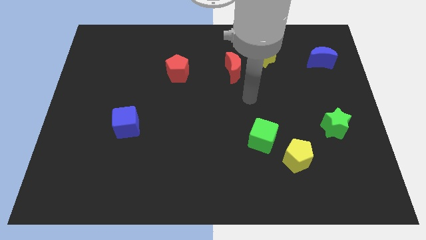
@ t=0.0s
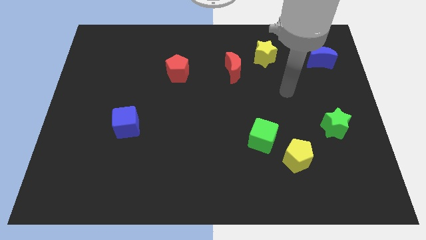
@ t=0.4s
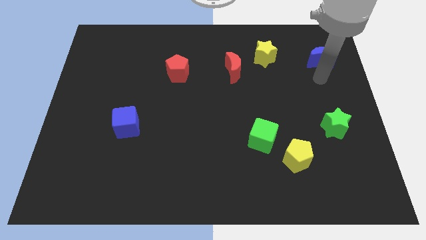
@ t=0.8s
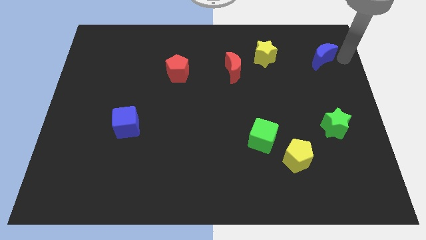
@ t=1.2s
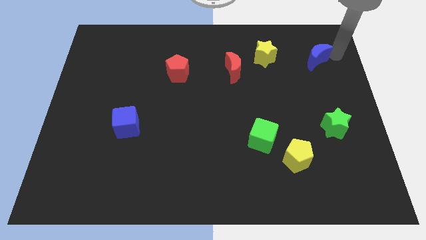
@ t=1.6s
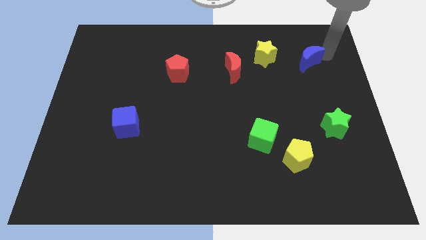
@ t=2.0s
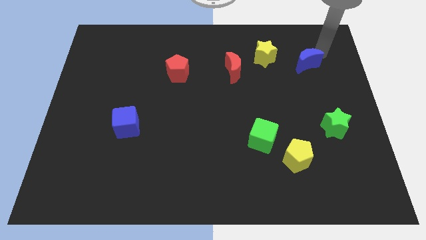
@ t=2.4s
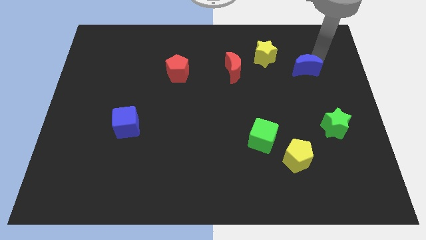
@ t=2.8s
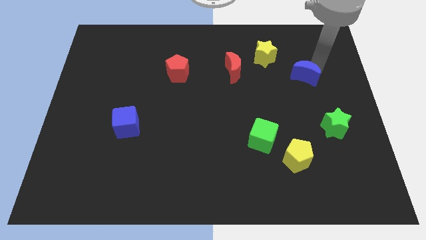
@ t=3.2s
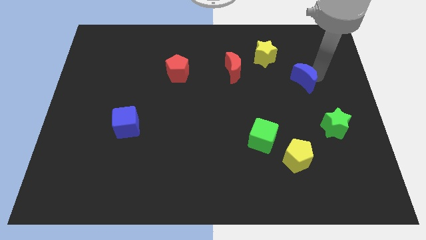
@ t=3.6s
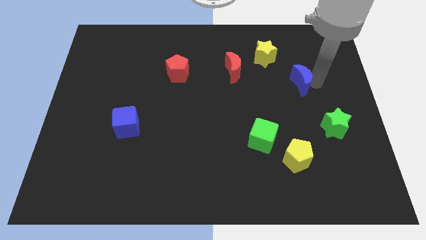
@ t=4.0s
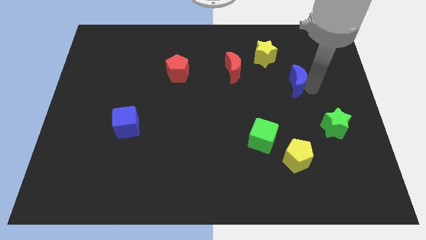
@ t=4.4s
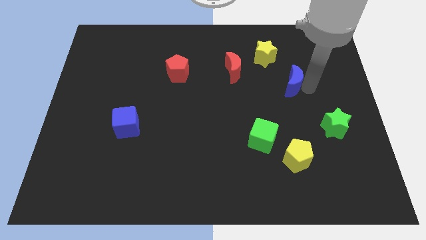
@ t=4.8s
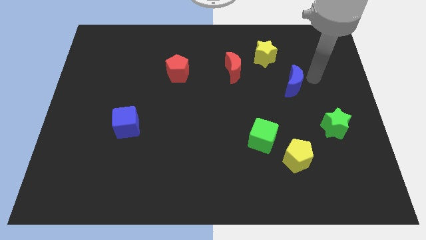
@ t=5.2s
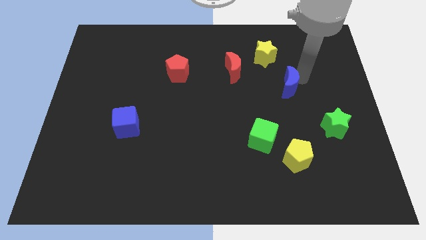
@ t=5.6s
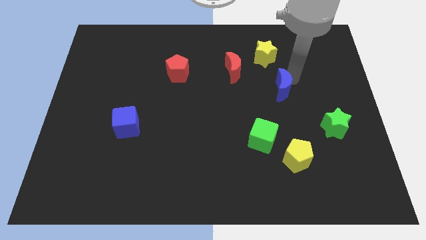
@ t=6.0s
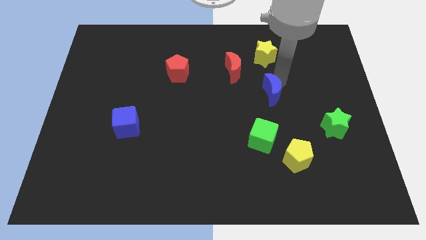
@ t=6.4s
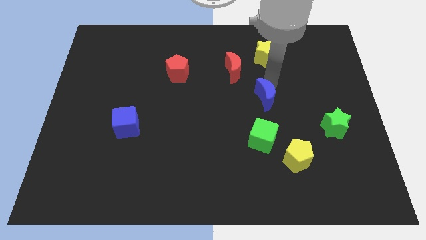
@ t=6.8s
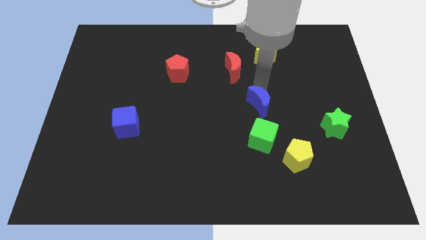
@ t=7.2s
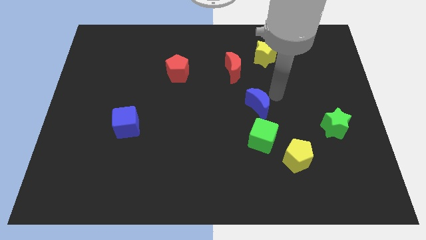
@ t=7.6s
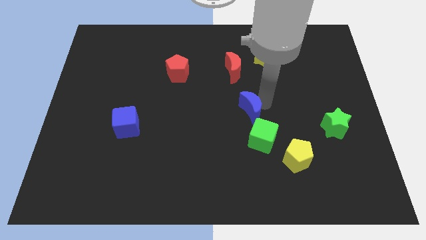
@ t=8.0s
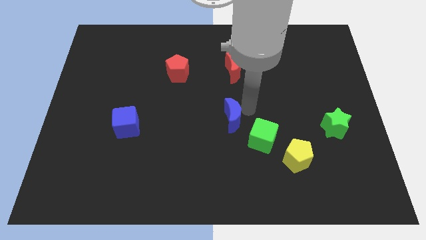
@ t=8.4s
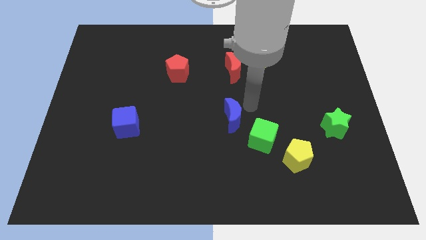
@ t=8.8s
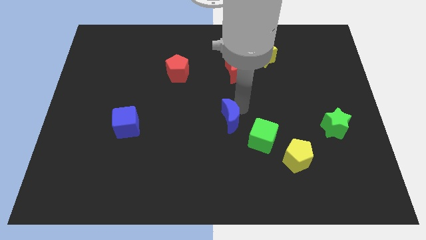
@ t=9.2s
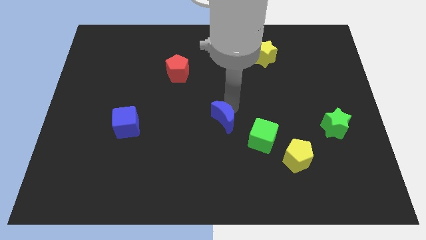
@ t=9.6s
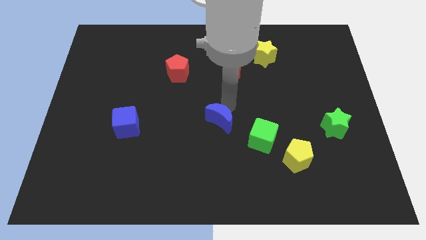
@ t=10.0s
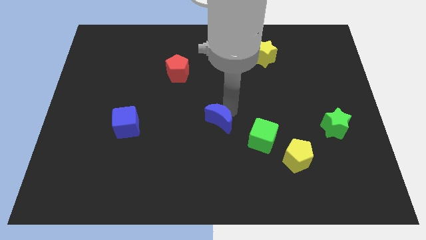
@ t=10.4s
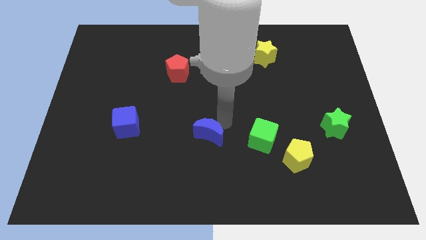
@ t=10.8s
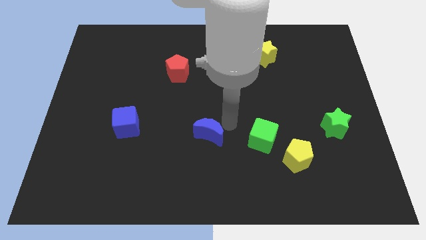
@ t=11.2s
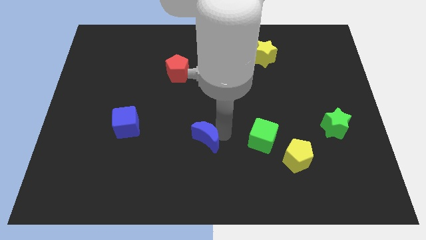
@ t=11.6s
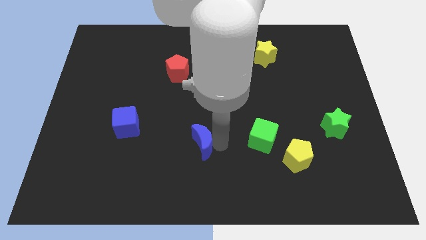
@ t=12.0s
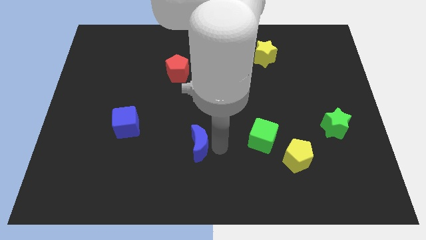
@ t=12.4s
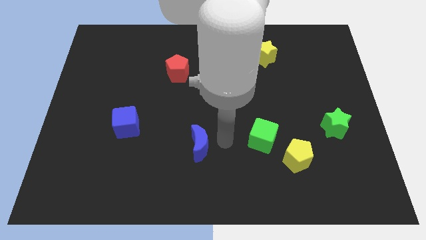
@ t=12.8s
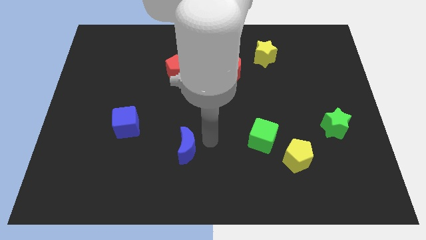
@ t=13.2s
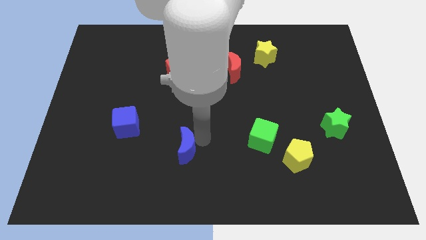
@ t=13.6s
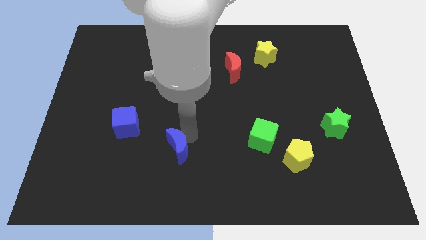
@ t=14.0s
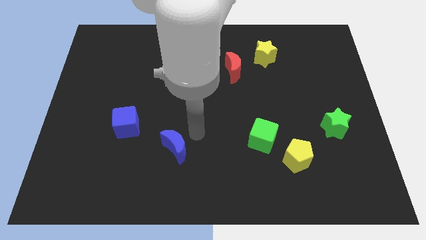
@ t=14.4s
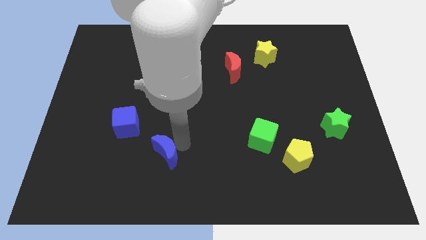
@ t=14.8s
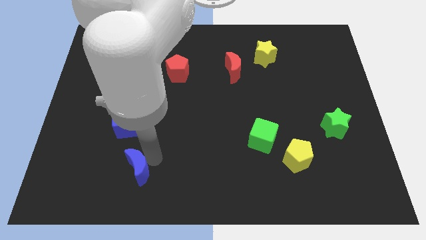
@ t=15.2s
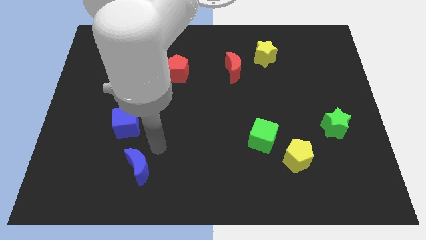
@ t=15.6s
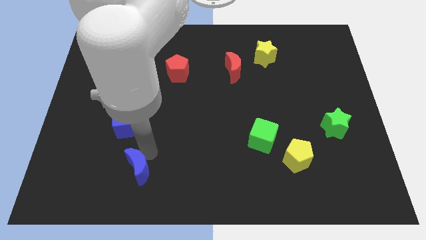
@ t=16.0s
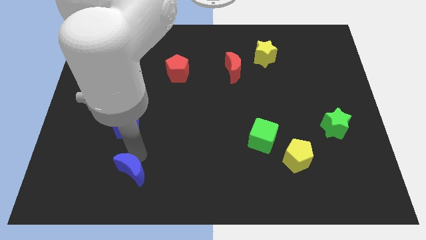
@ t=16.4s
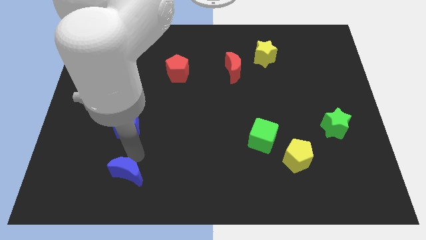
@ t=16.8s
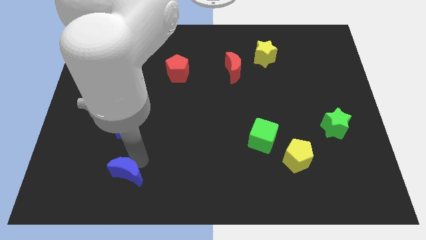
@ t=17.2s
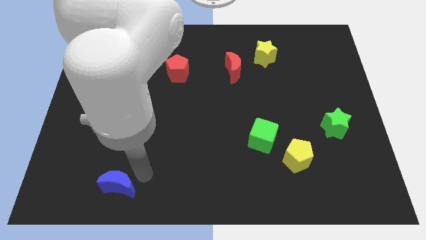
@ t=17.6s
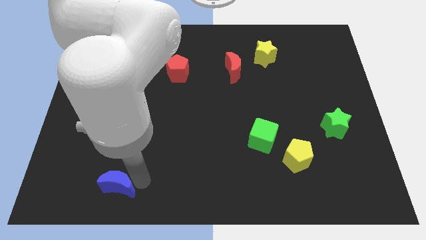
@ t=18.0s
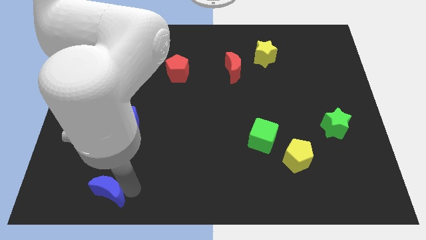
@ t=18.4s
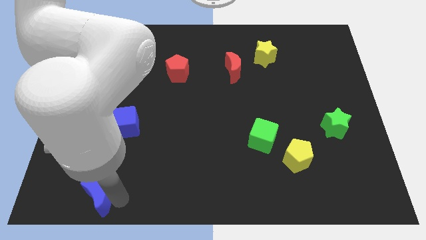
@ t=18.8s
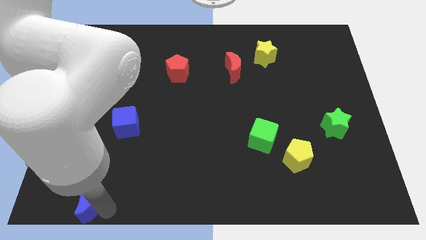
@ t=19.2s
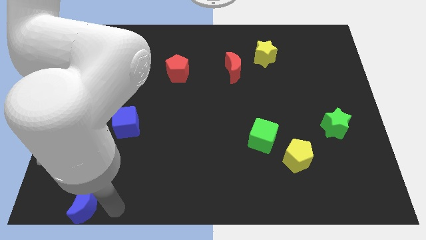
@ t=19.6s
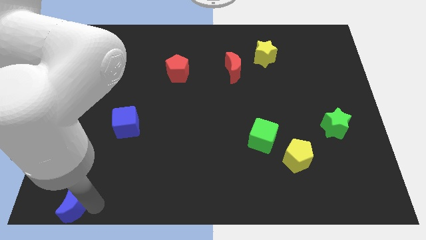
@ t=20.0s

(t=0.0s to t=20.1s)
push the blue moon to the lower left corner

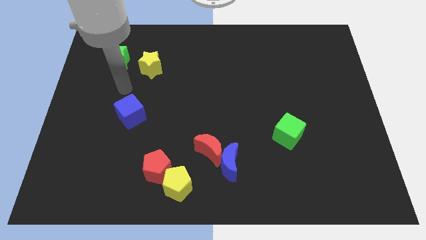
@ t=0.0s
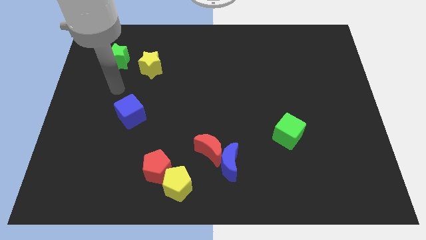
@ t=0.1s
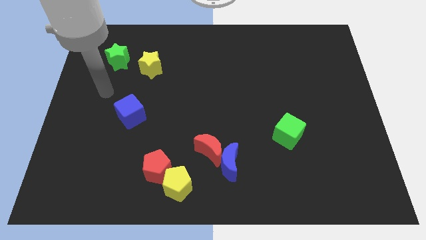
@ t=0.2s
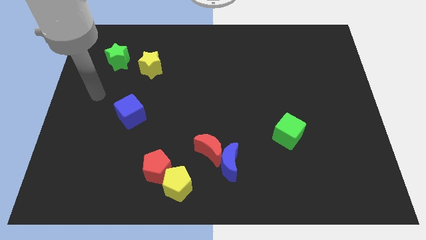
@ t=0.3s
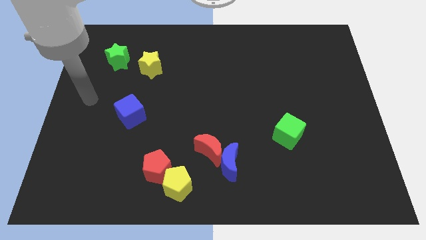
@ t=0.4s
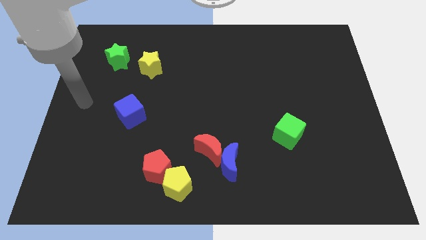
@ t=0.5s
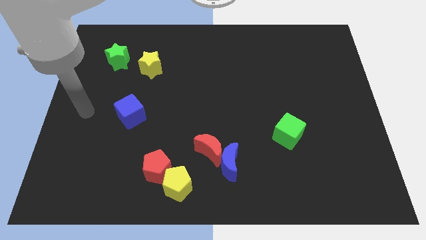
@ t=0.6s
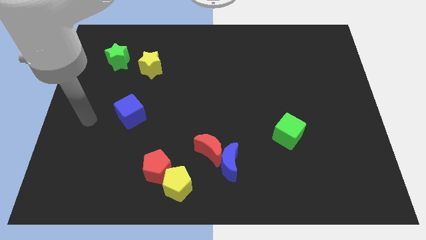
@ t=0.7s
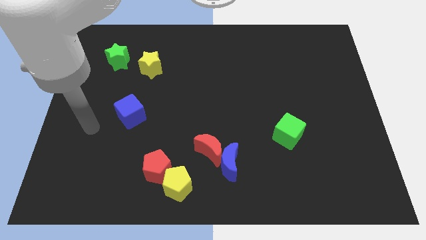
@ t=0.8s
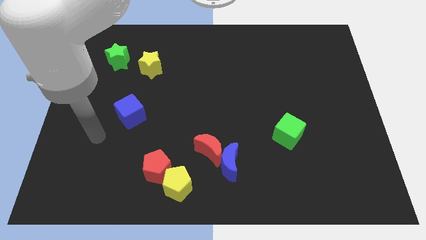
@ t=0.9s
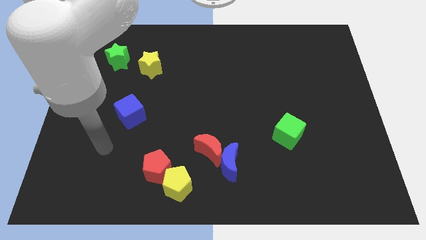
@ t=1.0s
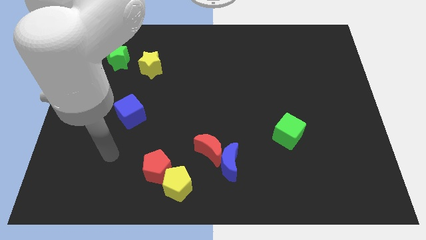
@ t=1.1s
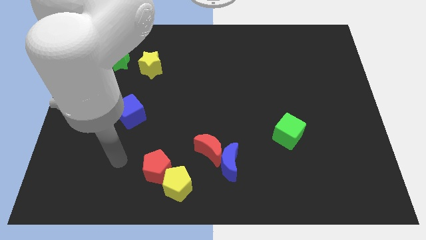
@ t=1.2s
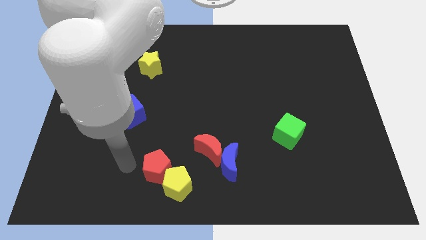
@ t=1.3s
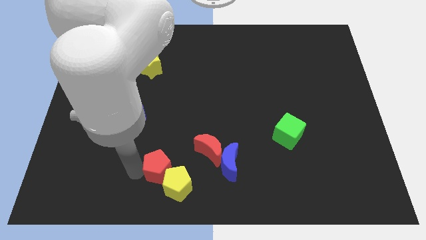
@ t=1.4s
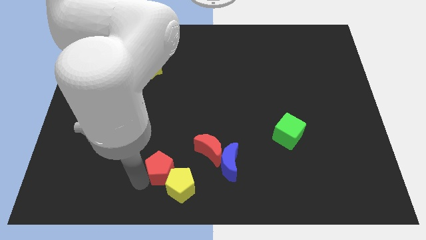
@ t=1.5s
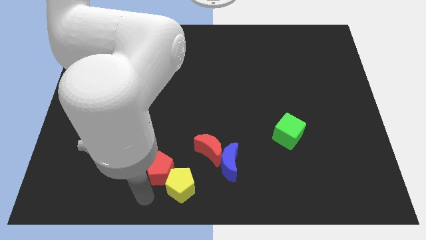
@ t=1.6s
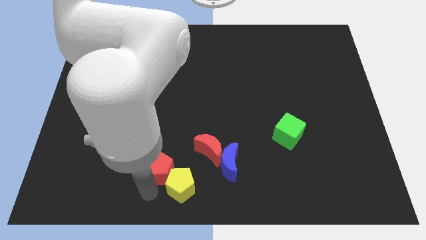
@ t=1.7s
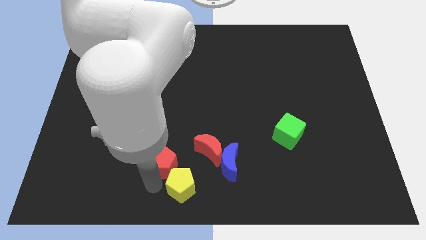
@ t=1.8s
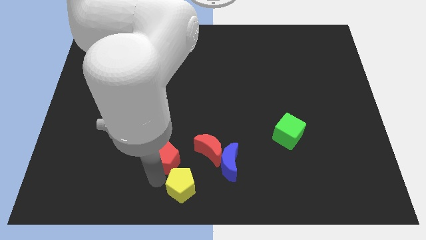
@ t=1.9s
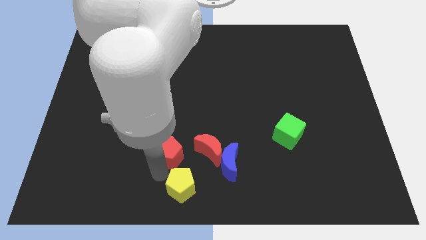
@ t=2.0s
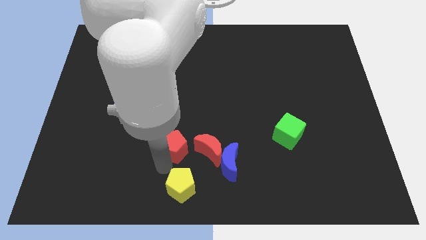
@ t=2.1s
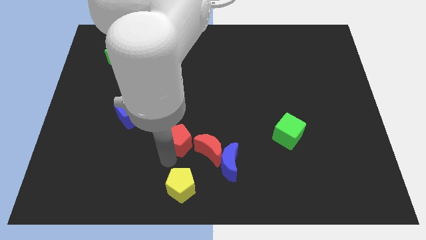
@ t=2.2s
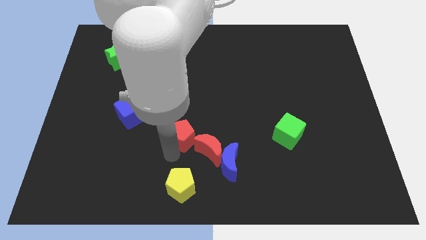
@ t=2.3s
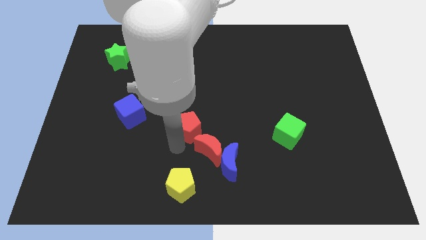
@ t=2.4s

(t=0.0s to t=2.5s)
put the red pentagon to the center
